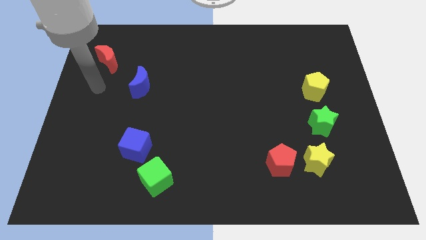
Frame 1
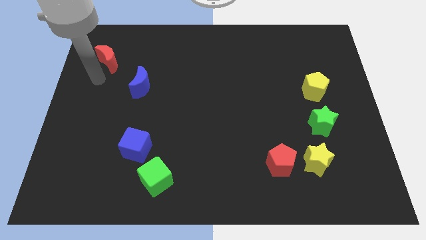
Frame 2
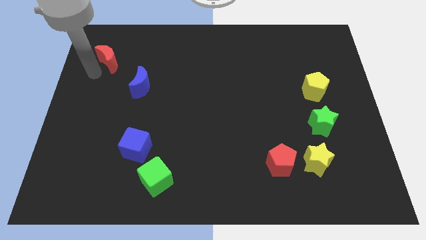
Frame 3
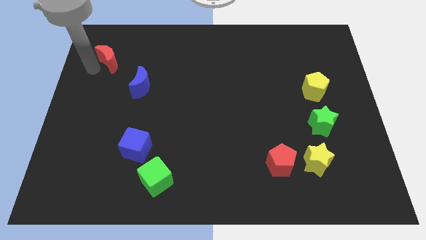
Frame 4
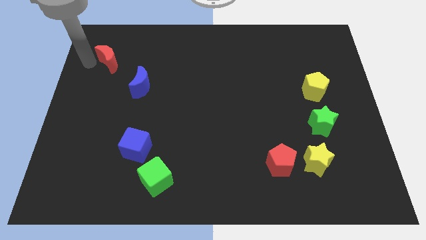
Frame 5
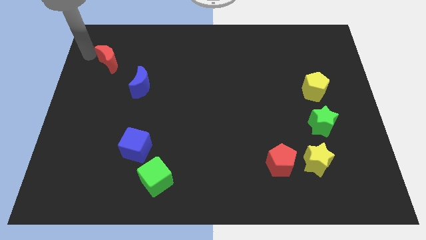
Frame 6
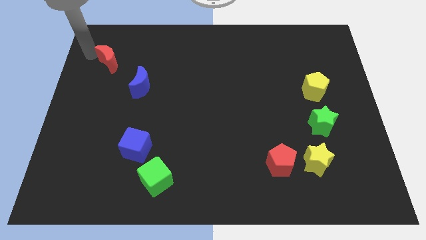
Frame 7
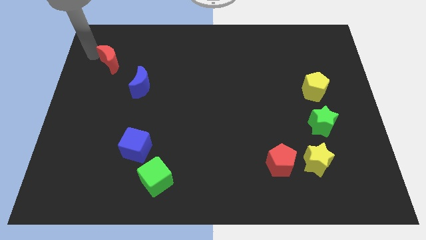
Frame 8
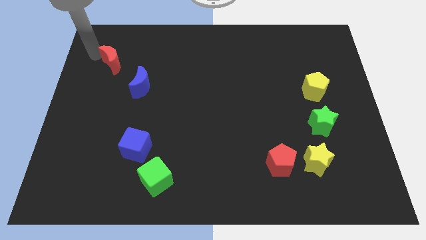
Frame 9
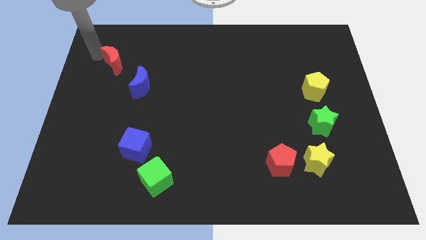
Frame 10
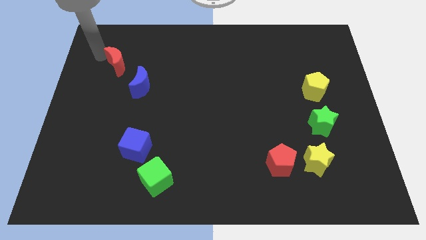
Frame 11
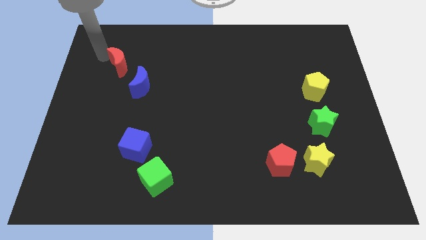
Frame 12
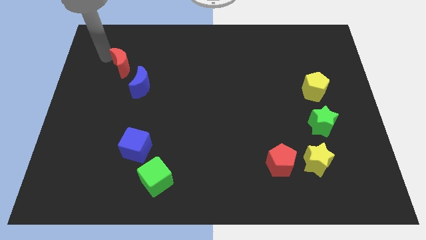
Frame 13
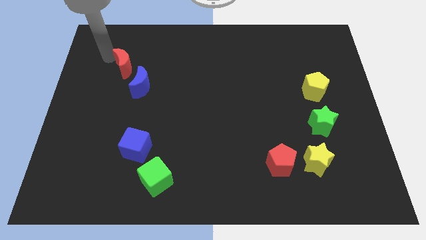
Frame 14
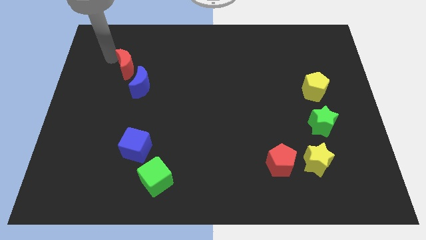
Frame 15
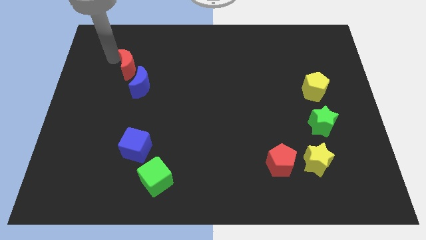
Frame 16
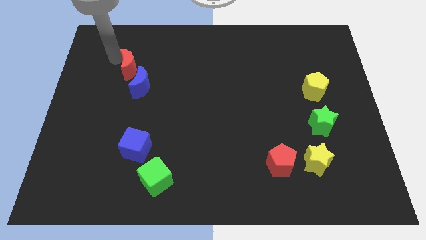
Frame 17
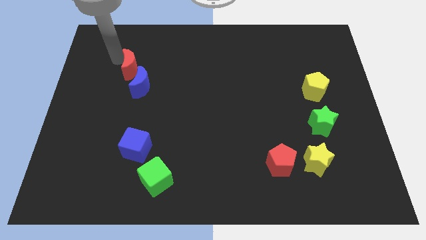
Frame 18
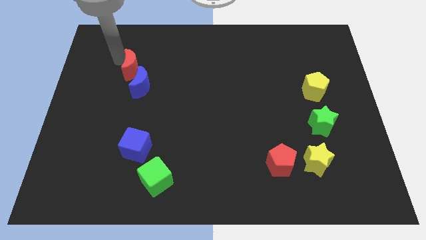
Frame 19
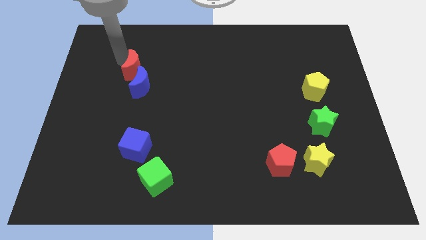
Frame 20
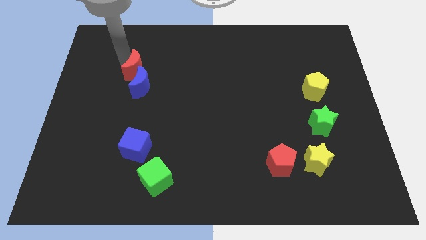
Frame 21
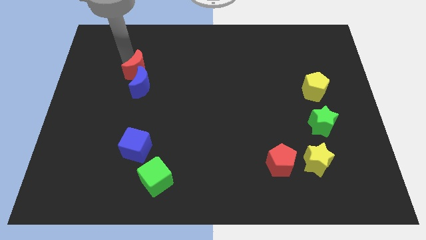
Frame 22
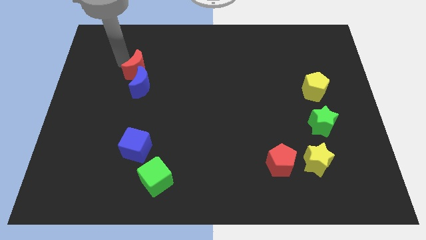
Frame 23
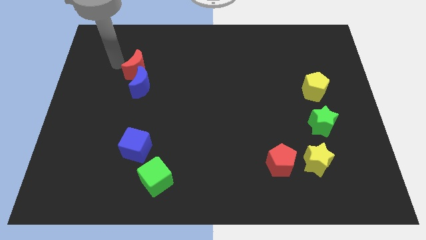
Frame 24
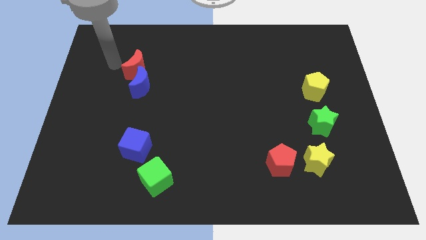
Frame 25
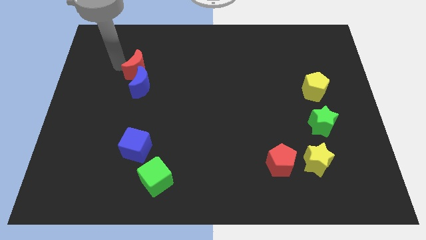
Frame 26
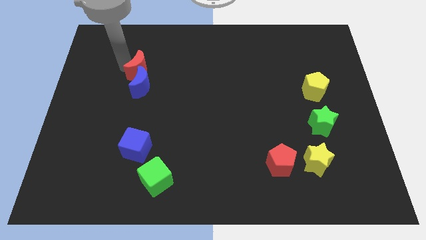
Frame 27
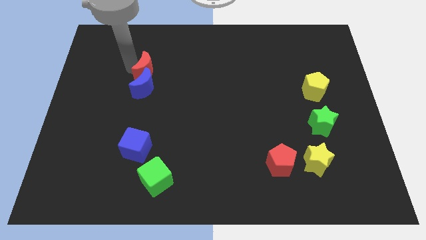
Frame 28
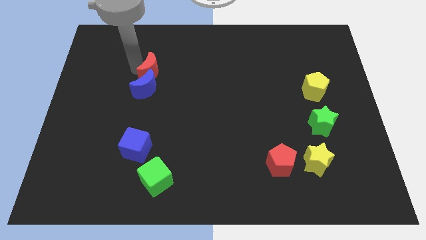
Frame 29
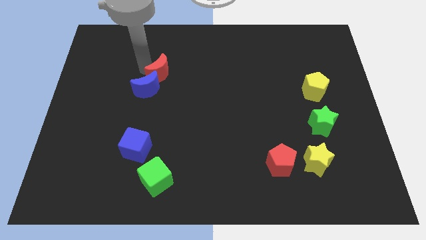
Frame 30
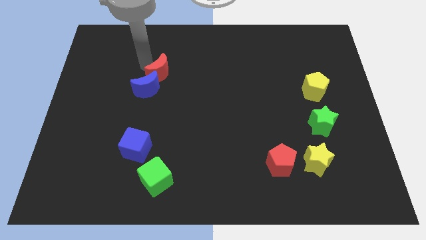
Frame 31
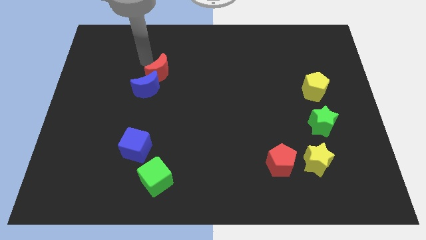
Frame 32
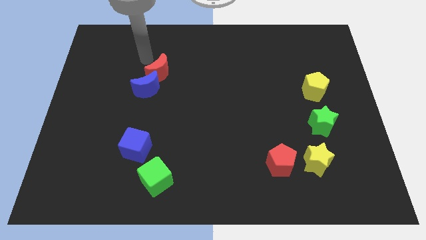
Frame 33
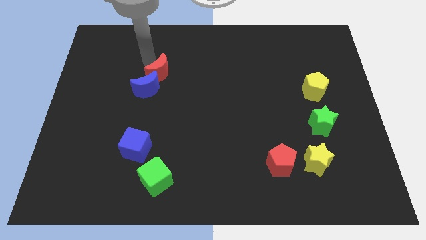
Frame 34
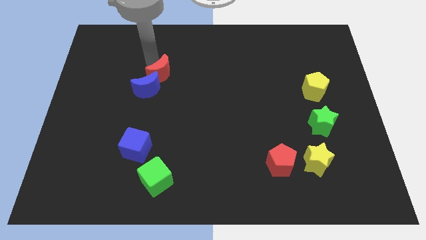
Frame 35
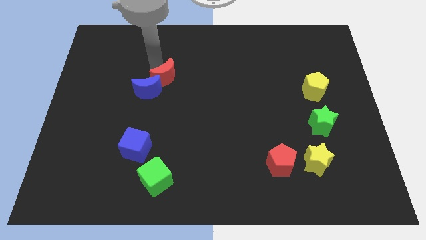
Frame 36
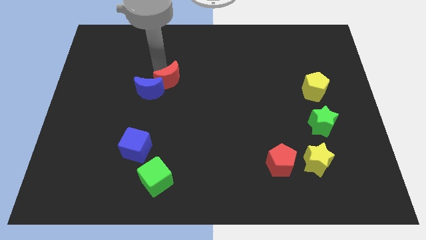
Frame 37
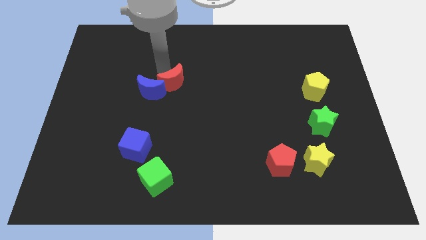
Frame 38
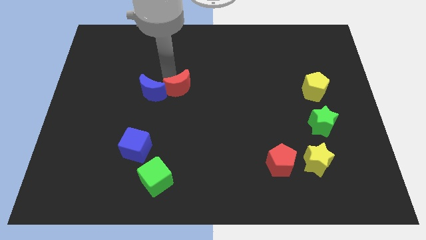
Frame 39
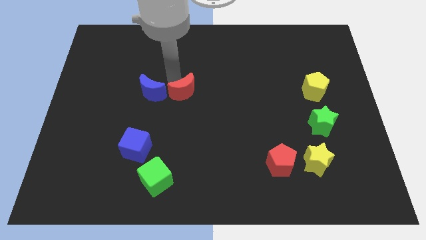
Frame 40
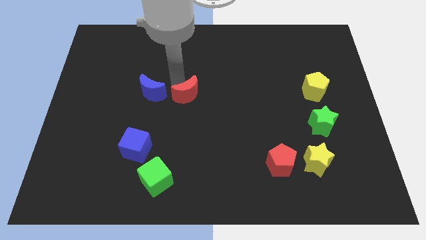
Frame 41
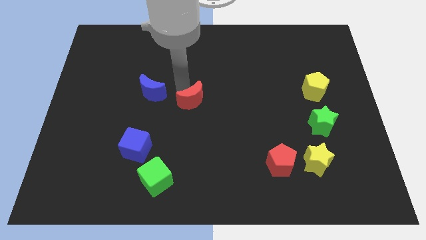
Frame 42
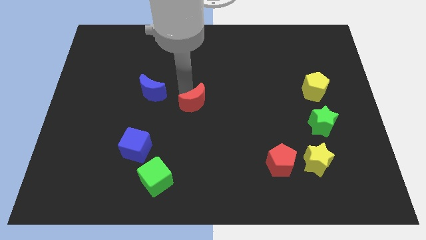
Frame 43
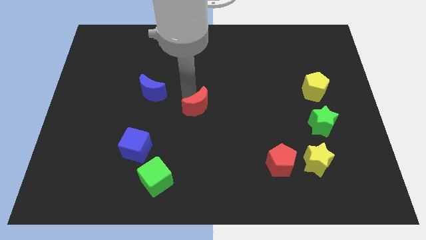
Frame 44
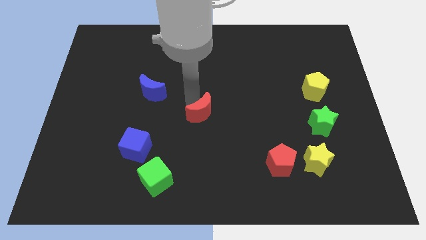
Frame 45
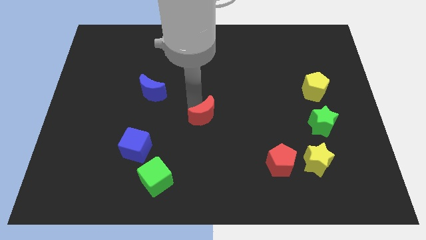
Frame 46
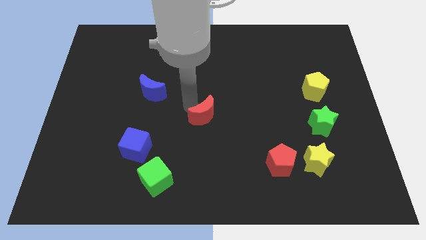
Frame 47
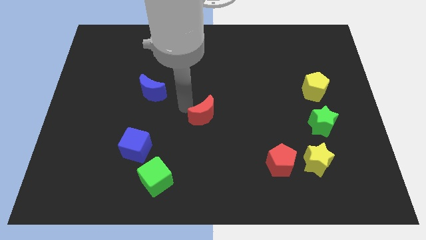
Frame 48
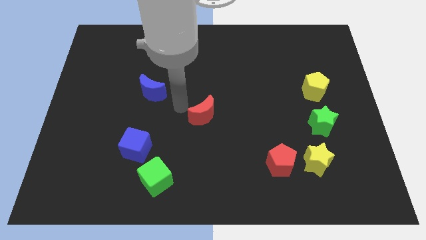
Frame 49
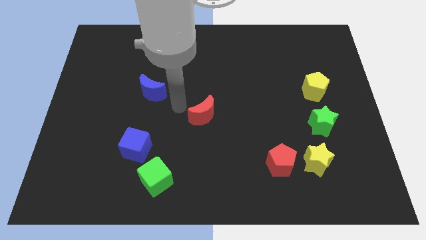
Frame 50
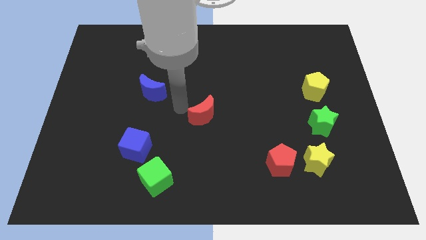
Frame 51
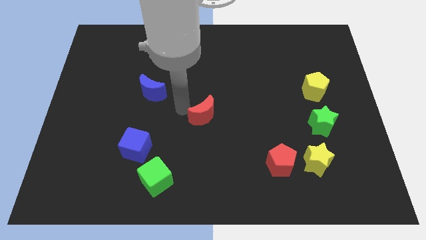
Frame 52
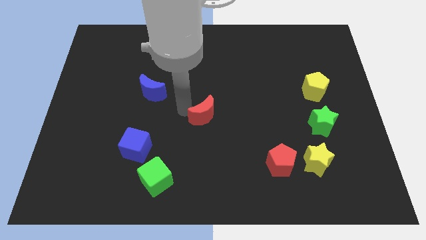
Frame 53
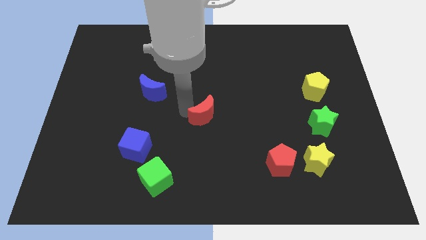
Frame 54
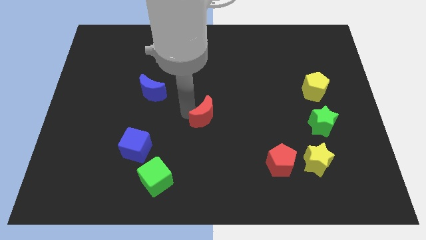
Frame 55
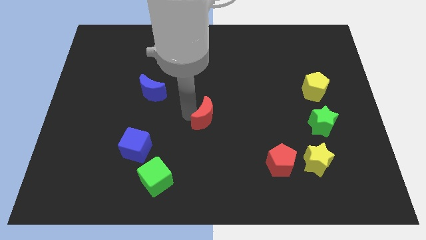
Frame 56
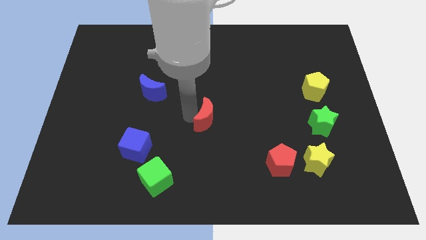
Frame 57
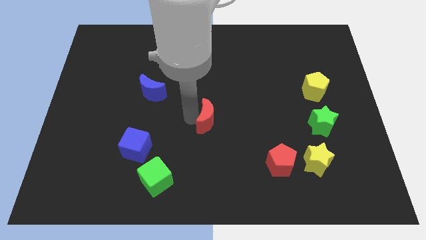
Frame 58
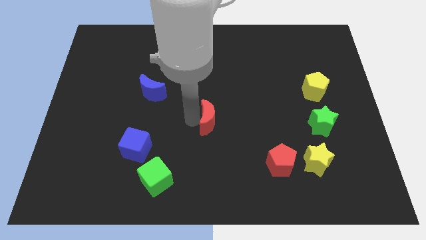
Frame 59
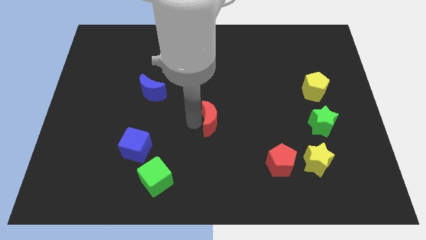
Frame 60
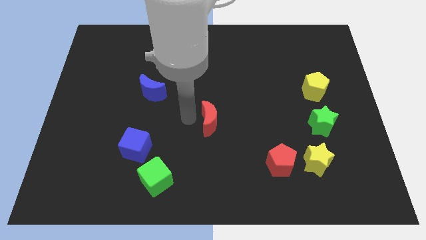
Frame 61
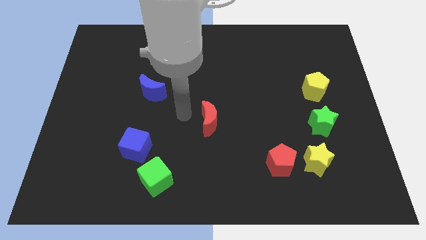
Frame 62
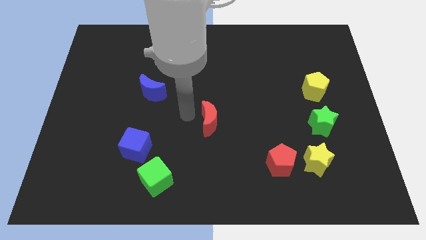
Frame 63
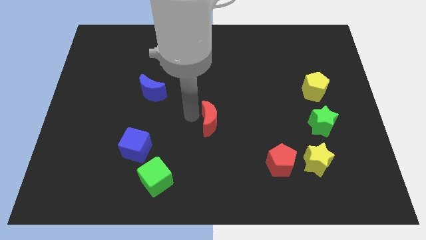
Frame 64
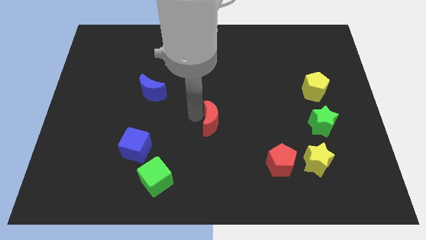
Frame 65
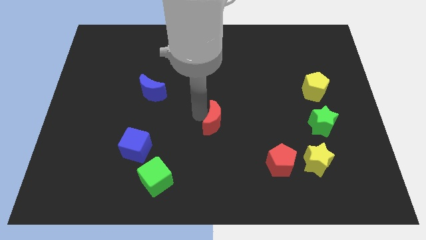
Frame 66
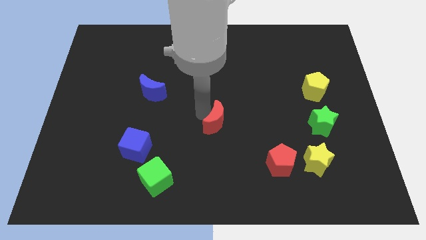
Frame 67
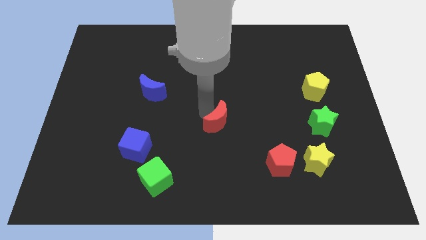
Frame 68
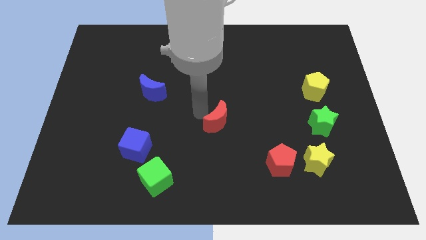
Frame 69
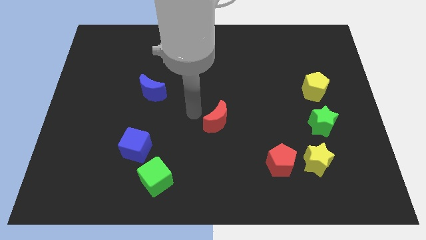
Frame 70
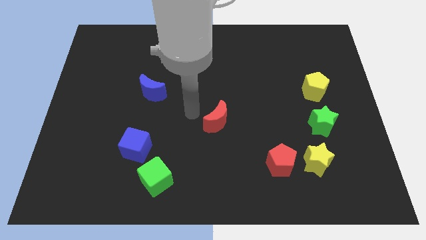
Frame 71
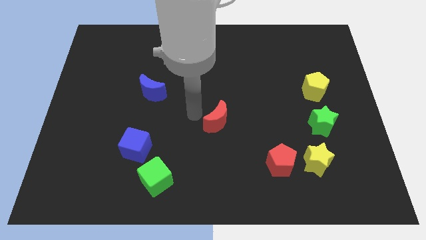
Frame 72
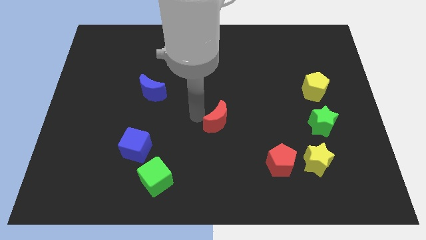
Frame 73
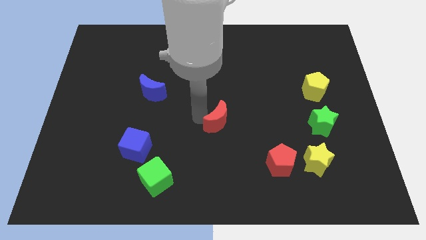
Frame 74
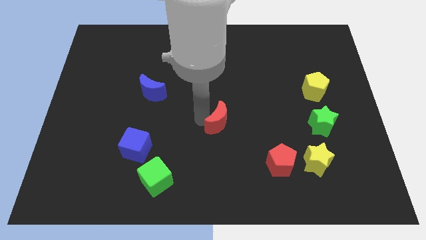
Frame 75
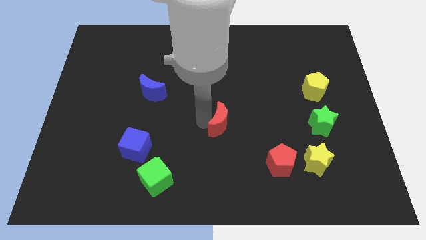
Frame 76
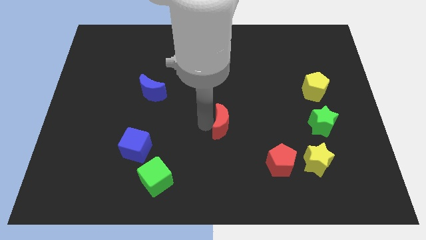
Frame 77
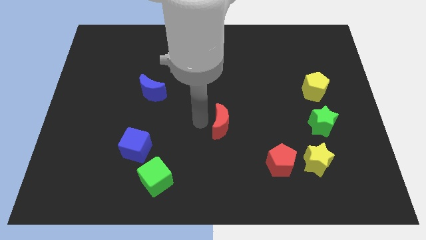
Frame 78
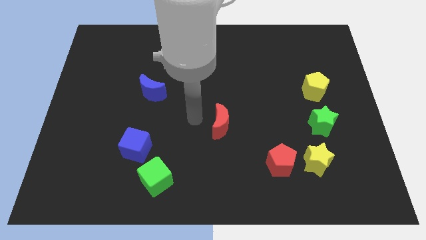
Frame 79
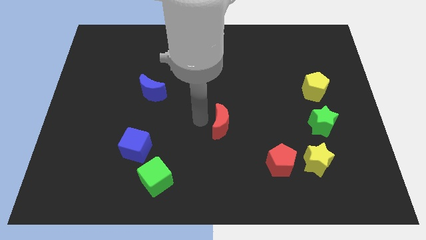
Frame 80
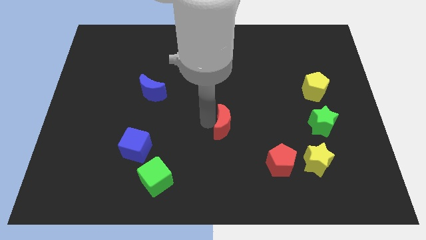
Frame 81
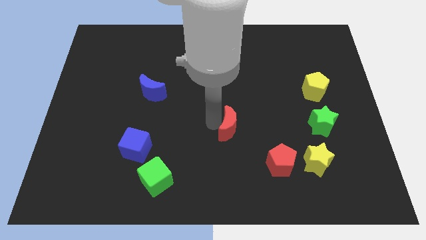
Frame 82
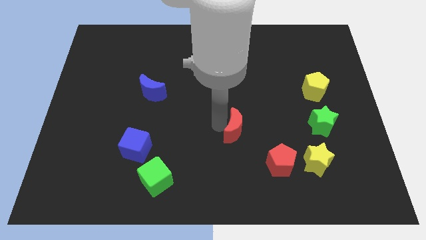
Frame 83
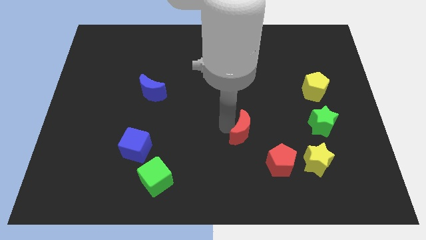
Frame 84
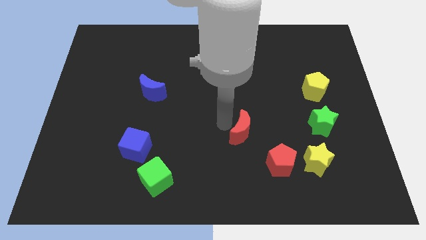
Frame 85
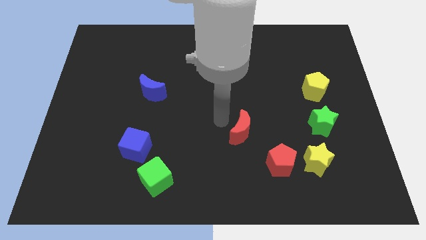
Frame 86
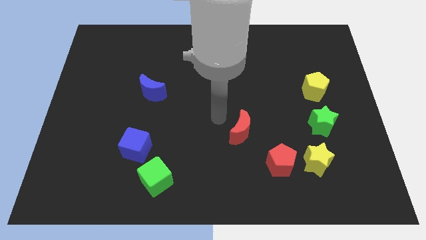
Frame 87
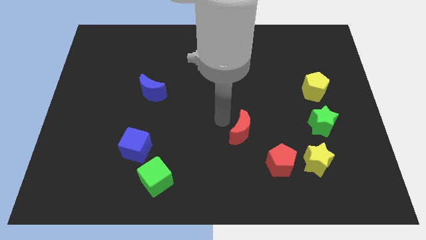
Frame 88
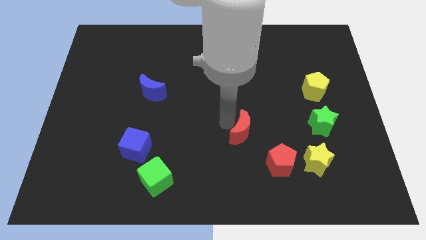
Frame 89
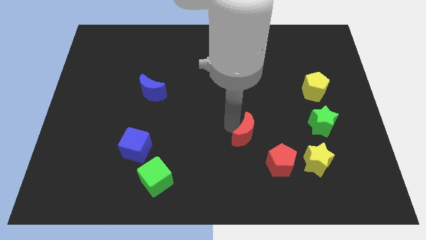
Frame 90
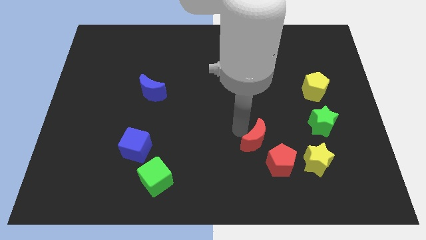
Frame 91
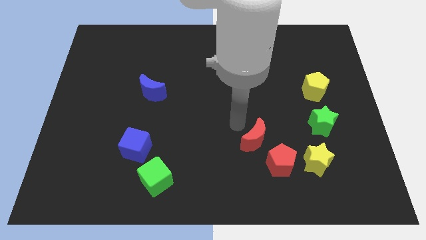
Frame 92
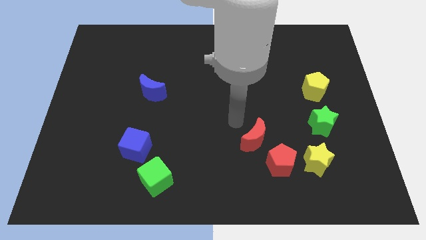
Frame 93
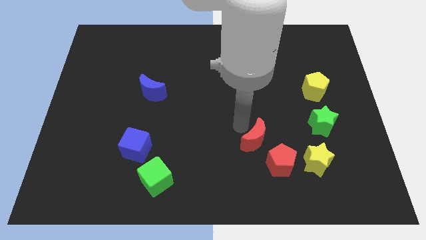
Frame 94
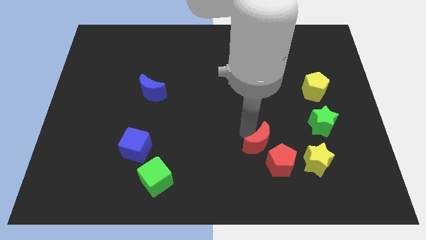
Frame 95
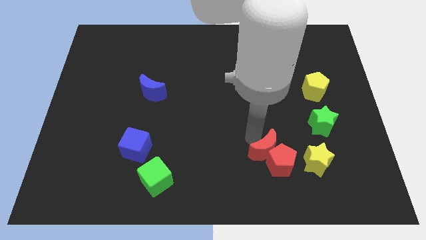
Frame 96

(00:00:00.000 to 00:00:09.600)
slide the red moon next to the red pentagon
